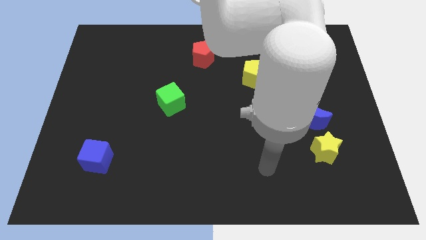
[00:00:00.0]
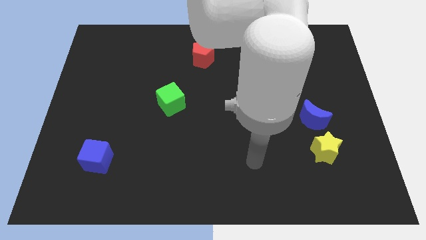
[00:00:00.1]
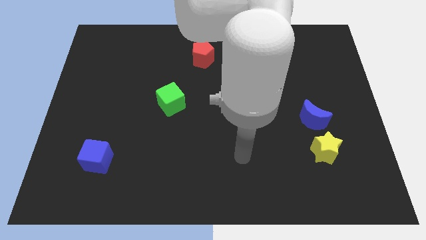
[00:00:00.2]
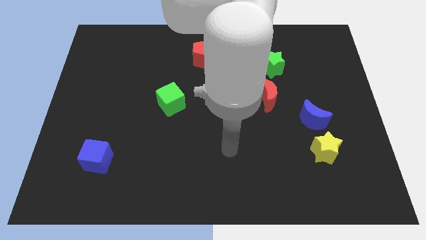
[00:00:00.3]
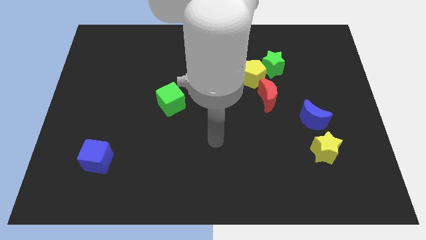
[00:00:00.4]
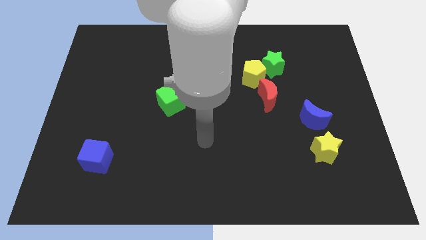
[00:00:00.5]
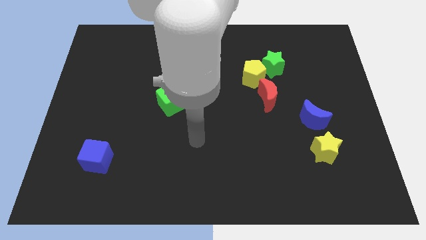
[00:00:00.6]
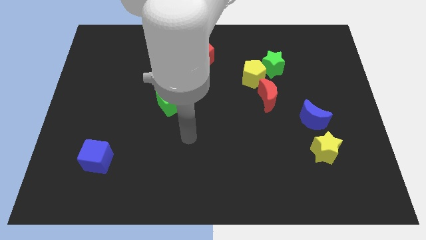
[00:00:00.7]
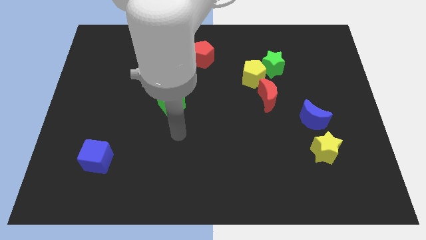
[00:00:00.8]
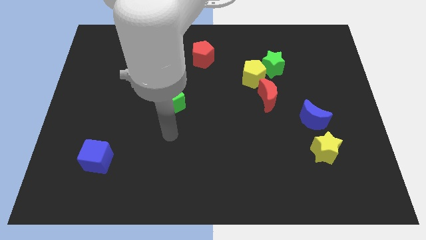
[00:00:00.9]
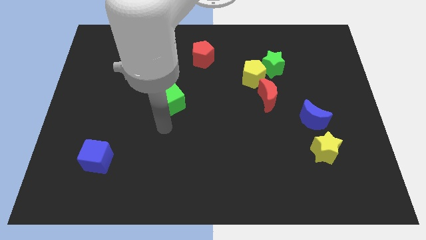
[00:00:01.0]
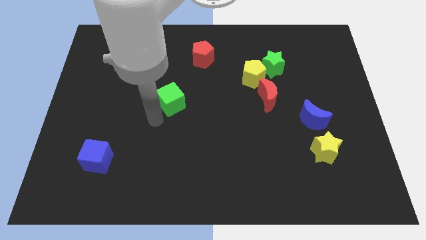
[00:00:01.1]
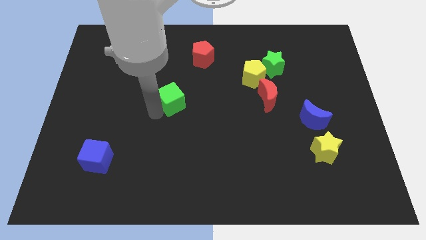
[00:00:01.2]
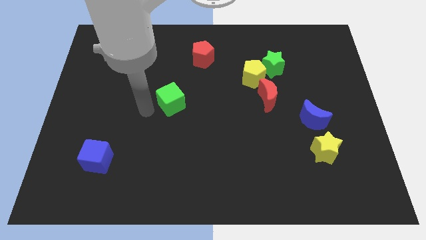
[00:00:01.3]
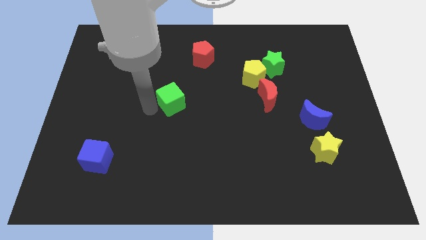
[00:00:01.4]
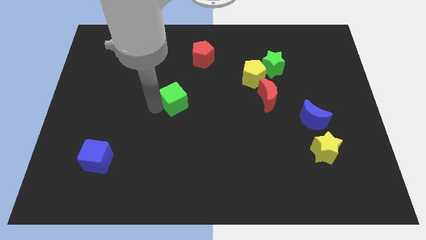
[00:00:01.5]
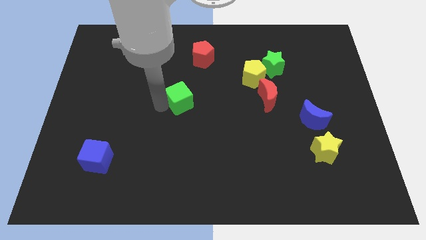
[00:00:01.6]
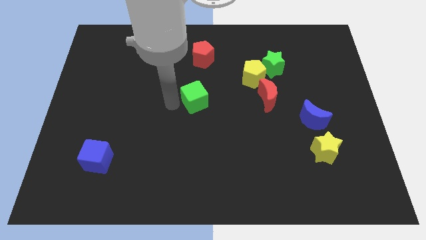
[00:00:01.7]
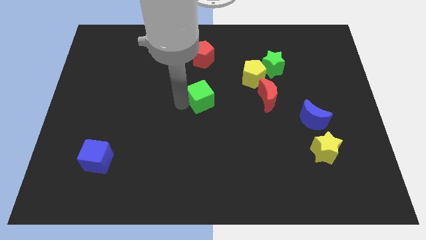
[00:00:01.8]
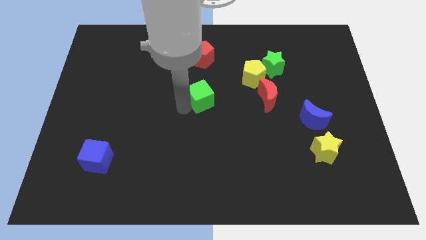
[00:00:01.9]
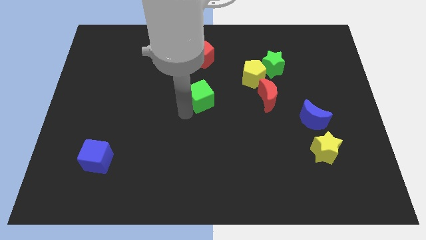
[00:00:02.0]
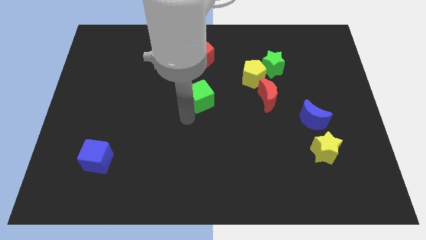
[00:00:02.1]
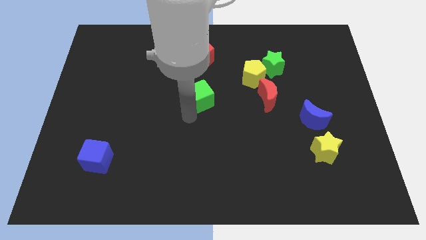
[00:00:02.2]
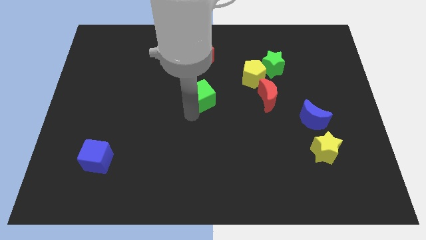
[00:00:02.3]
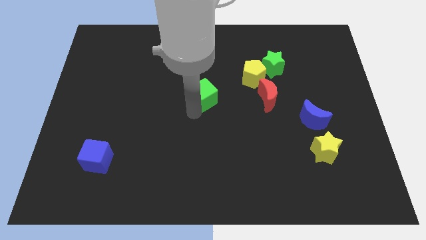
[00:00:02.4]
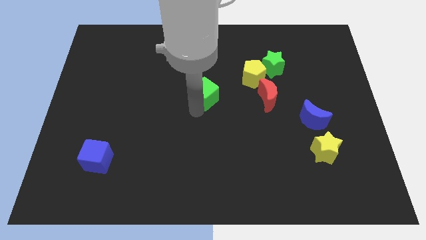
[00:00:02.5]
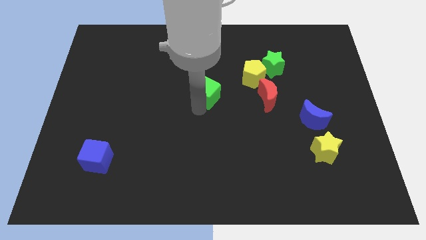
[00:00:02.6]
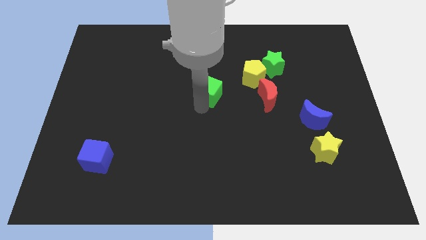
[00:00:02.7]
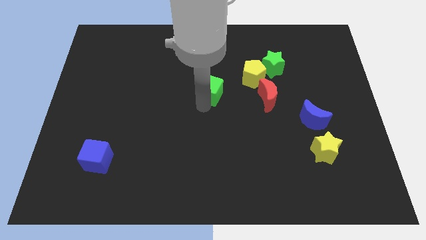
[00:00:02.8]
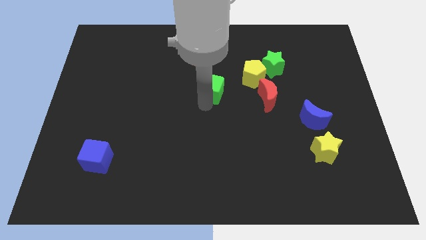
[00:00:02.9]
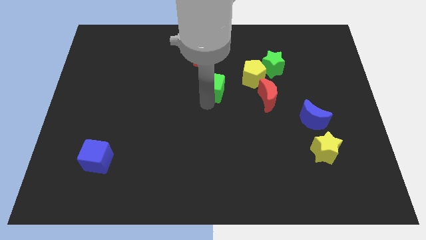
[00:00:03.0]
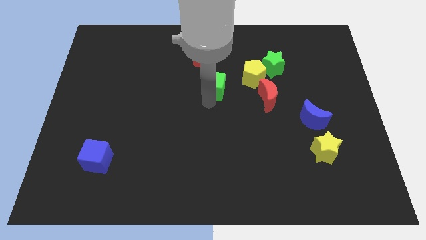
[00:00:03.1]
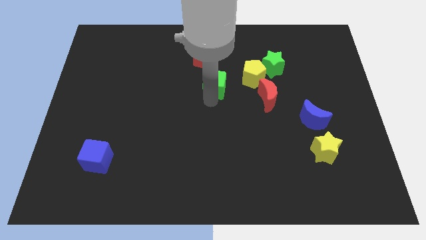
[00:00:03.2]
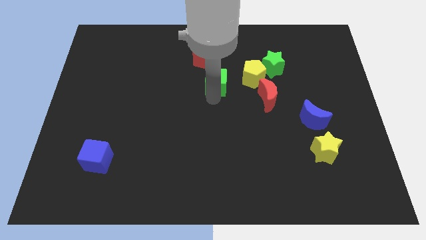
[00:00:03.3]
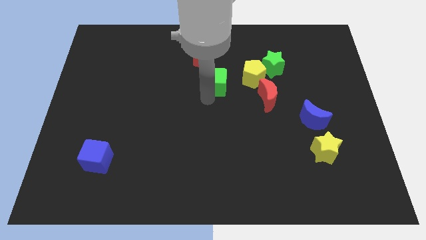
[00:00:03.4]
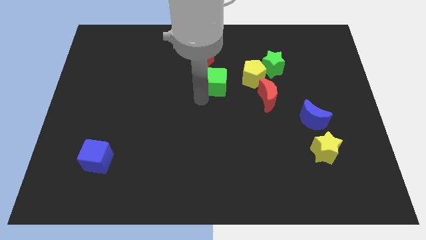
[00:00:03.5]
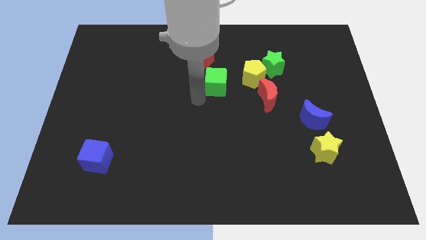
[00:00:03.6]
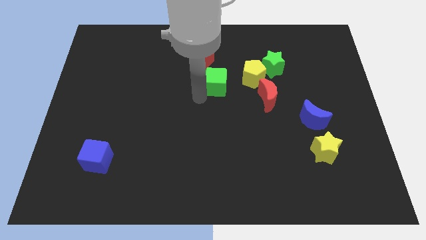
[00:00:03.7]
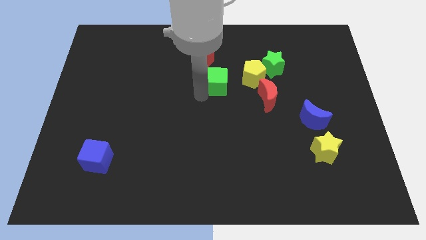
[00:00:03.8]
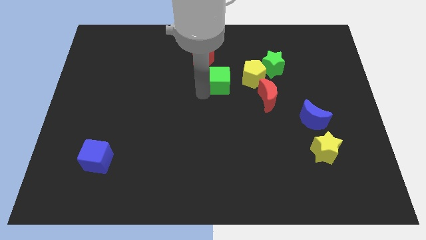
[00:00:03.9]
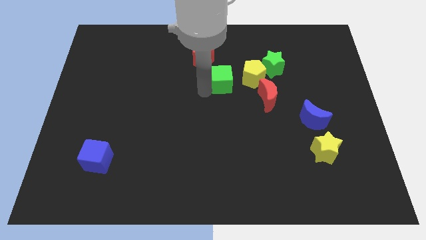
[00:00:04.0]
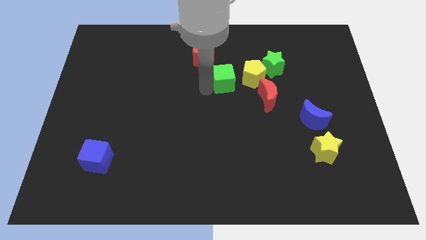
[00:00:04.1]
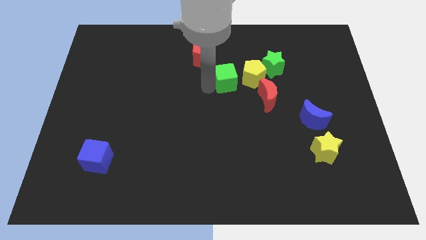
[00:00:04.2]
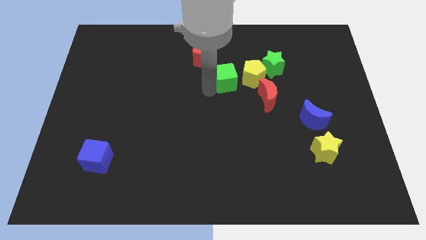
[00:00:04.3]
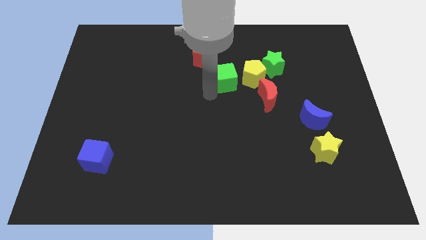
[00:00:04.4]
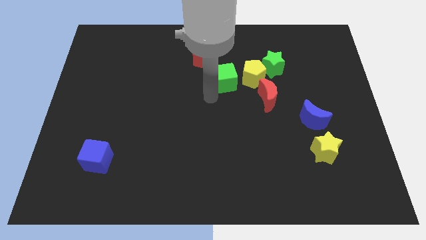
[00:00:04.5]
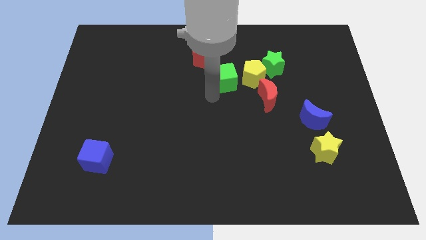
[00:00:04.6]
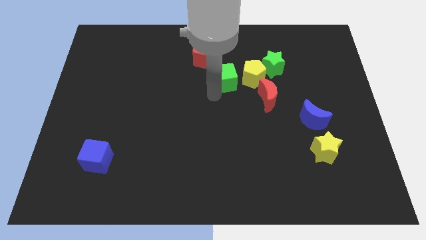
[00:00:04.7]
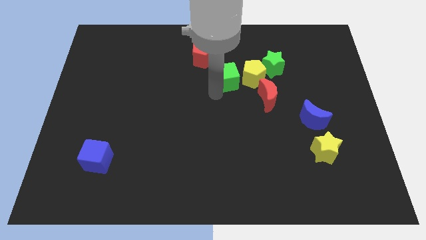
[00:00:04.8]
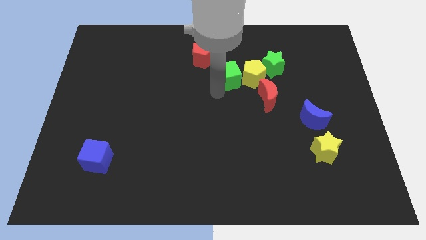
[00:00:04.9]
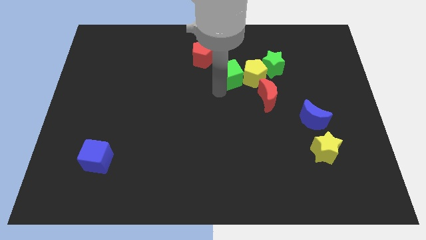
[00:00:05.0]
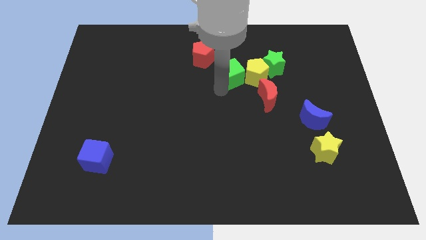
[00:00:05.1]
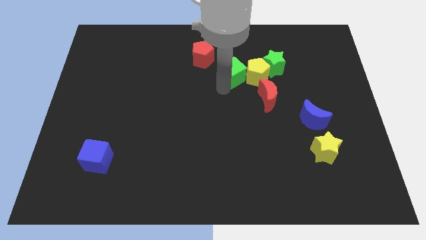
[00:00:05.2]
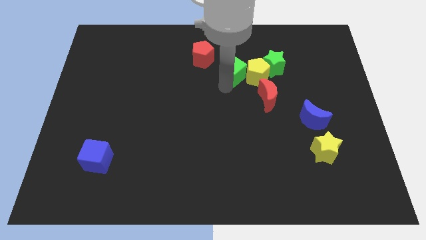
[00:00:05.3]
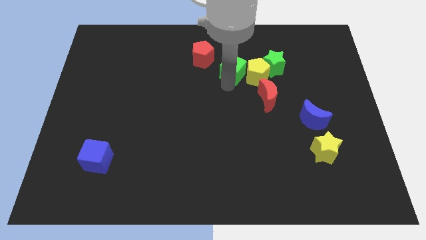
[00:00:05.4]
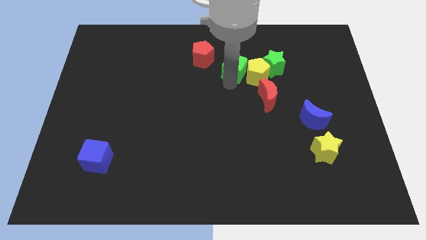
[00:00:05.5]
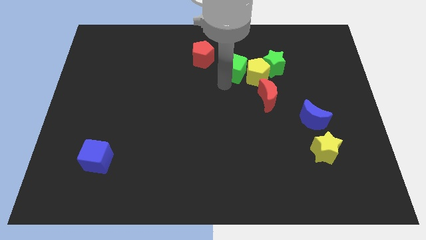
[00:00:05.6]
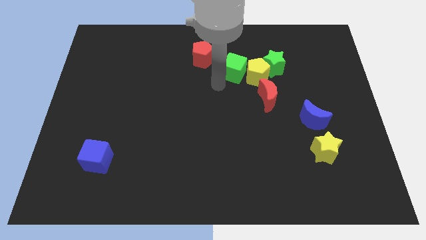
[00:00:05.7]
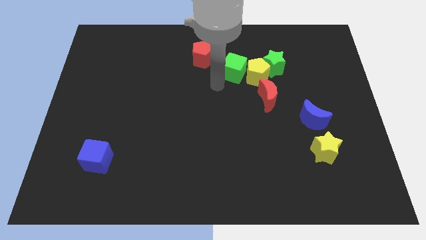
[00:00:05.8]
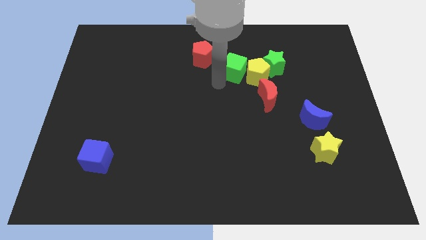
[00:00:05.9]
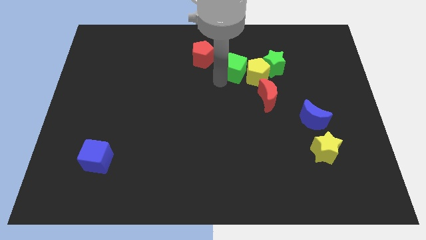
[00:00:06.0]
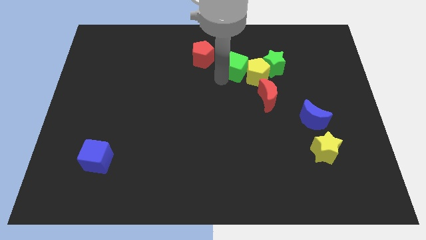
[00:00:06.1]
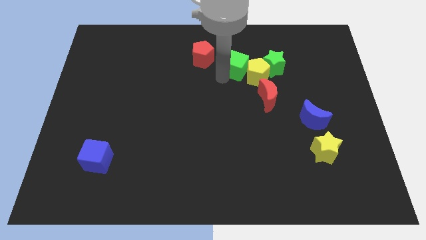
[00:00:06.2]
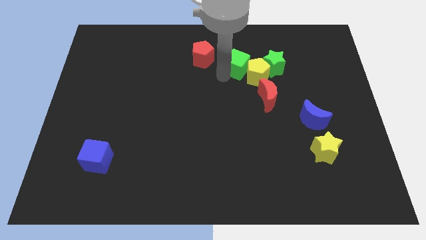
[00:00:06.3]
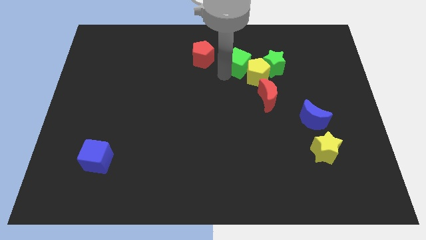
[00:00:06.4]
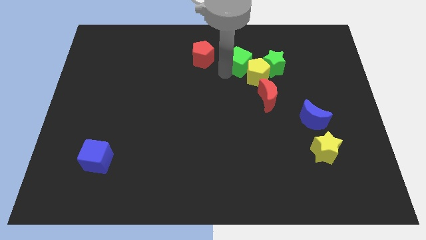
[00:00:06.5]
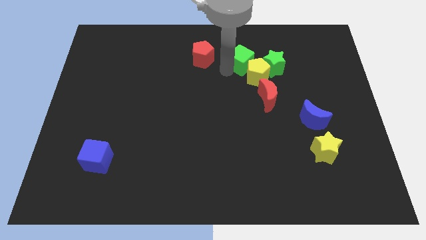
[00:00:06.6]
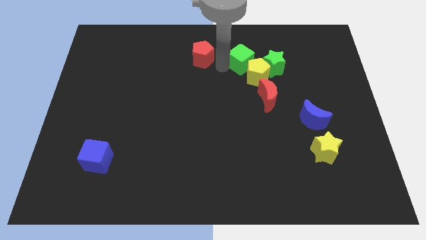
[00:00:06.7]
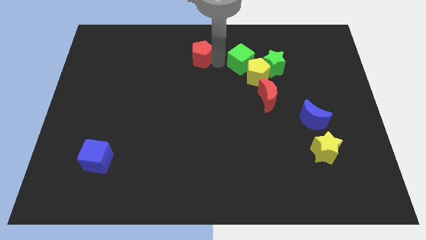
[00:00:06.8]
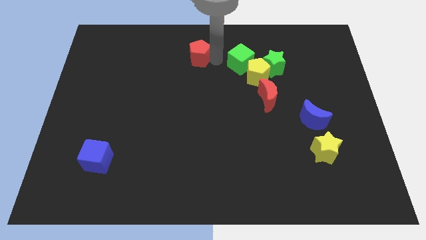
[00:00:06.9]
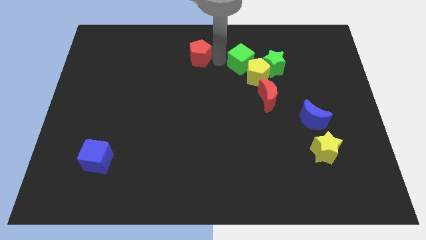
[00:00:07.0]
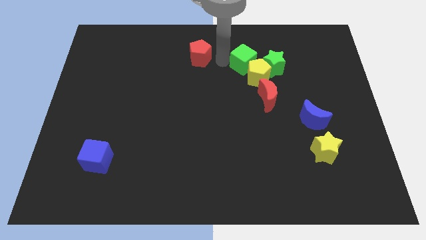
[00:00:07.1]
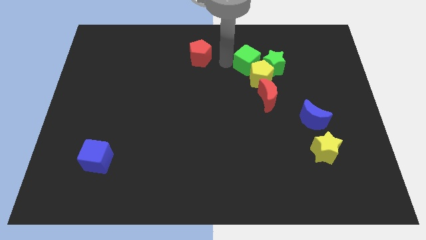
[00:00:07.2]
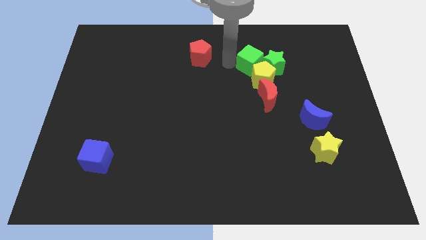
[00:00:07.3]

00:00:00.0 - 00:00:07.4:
put the green cube to the green star

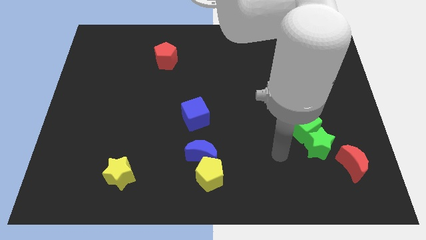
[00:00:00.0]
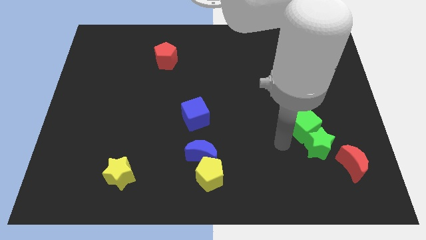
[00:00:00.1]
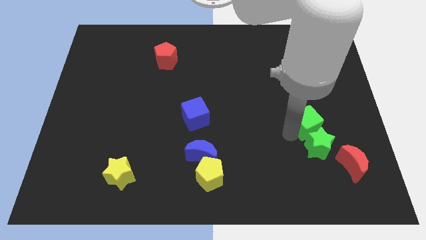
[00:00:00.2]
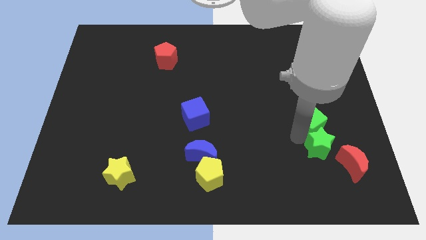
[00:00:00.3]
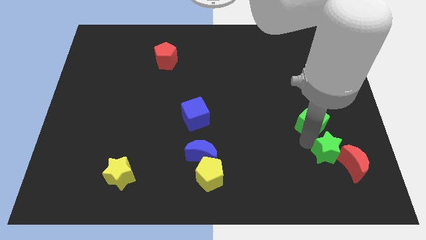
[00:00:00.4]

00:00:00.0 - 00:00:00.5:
slide the green star to the red moon
